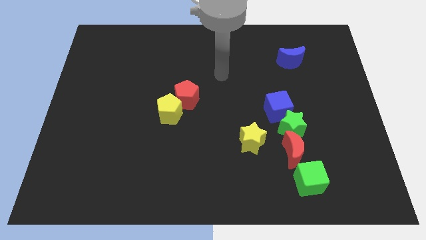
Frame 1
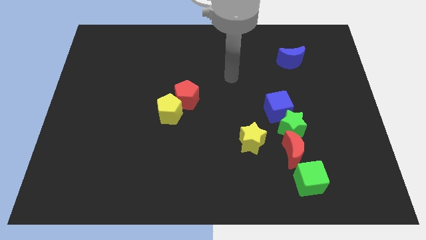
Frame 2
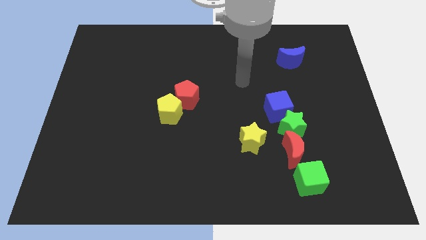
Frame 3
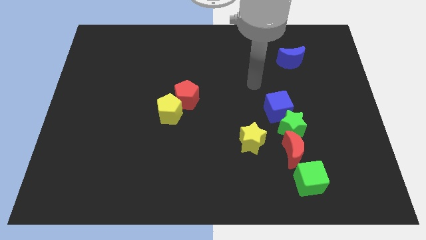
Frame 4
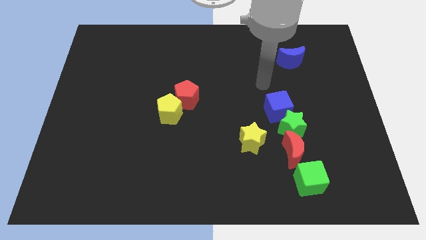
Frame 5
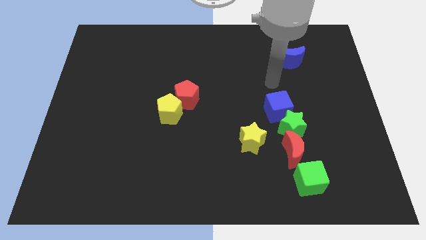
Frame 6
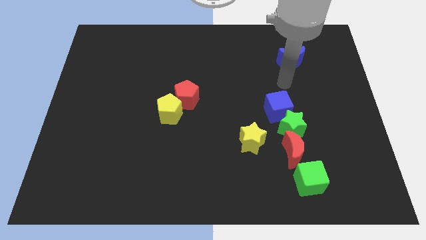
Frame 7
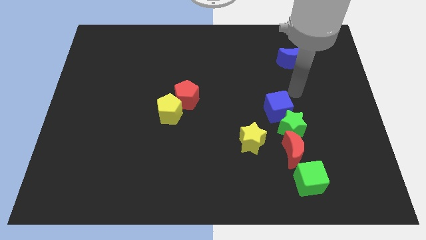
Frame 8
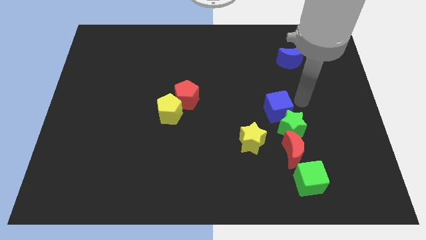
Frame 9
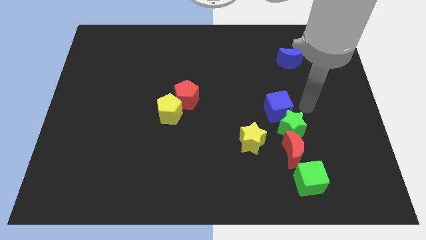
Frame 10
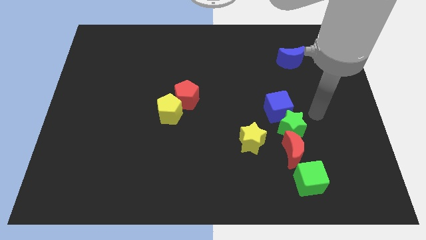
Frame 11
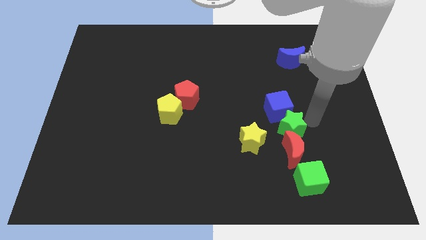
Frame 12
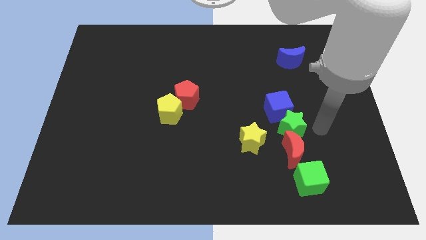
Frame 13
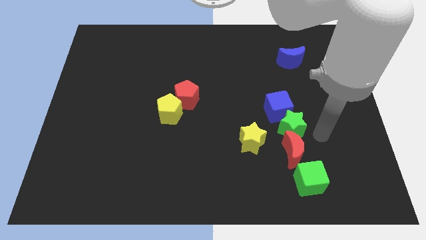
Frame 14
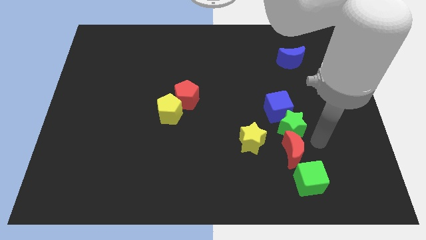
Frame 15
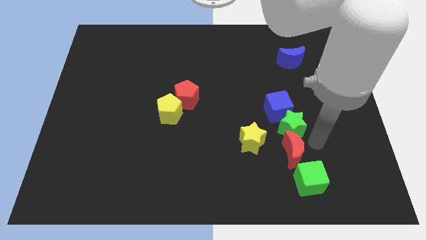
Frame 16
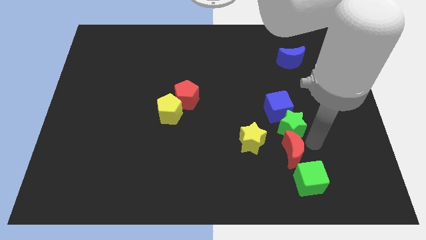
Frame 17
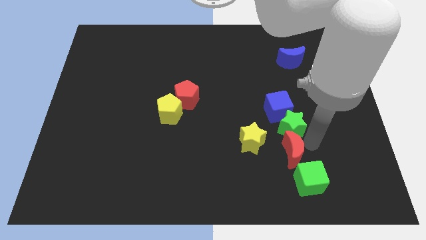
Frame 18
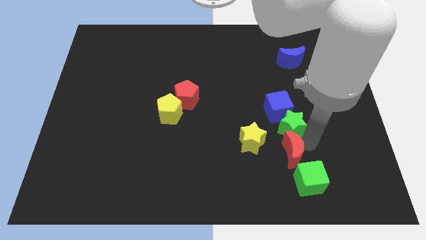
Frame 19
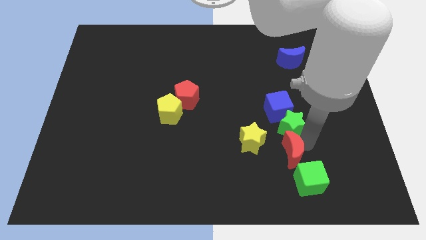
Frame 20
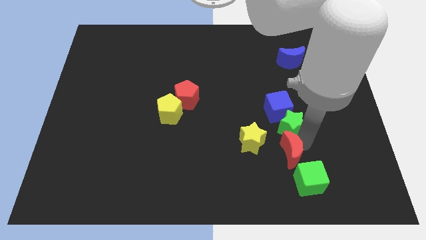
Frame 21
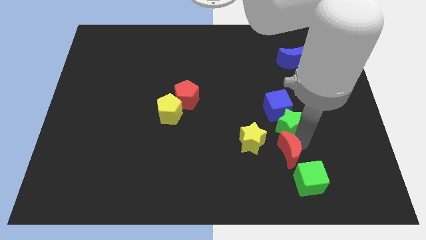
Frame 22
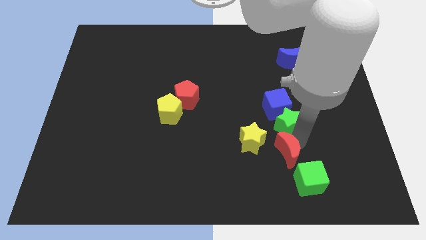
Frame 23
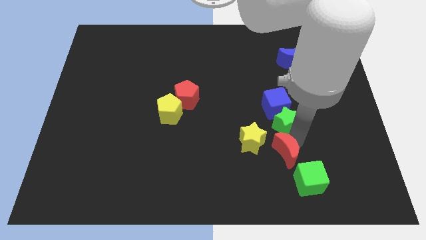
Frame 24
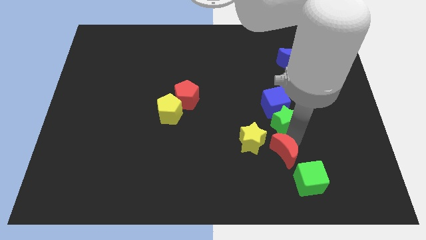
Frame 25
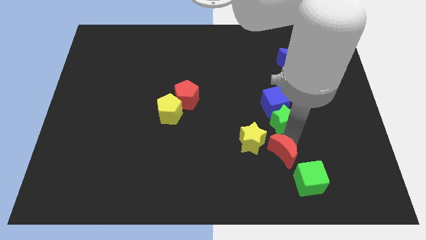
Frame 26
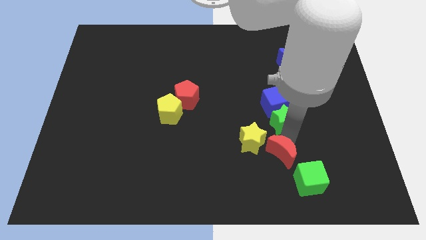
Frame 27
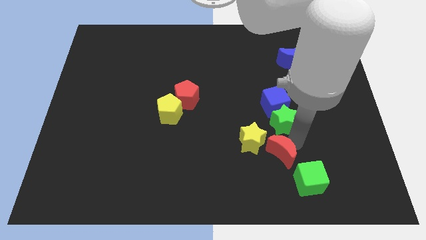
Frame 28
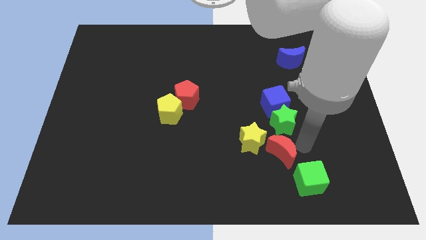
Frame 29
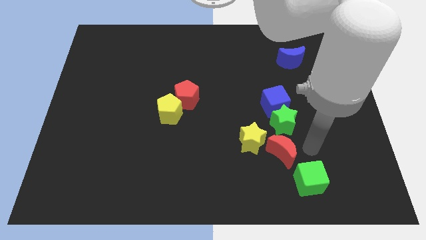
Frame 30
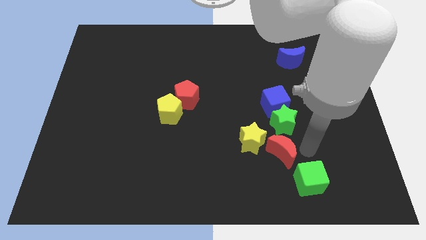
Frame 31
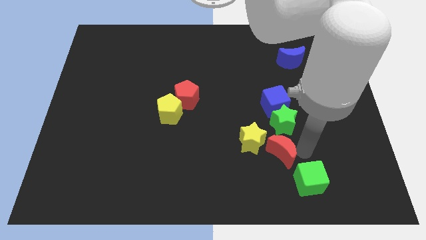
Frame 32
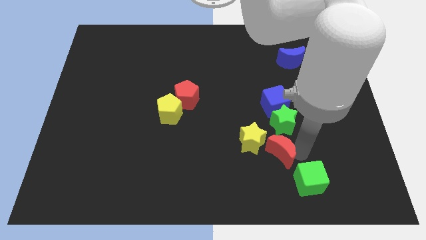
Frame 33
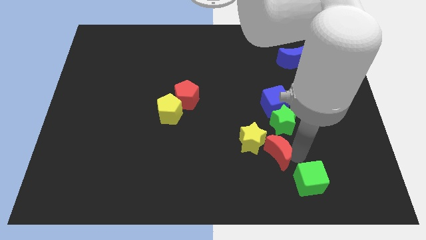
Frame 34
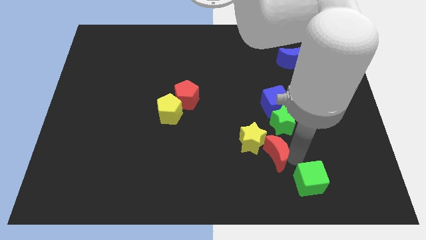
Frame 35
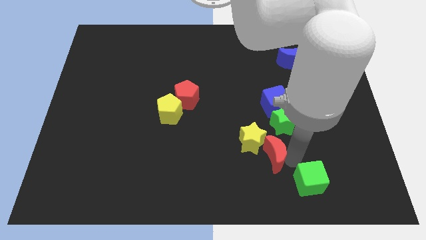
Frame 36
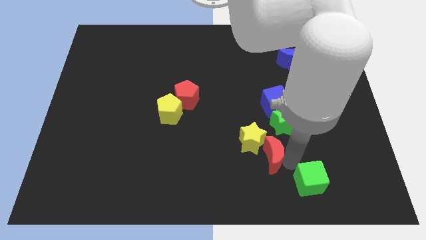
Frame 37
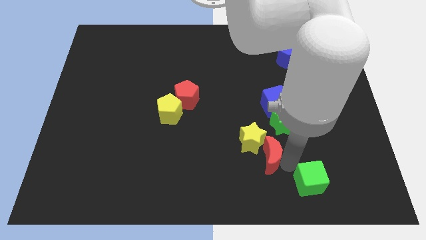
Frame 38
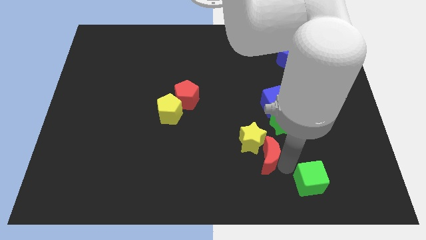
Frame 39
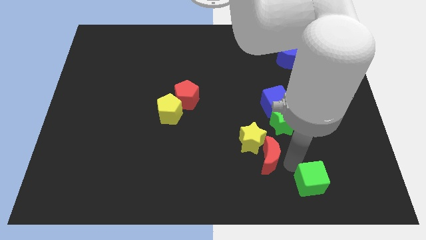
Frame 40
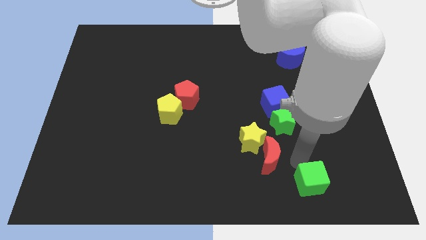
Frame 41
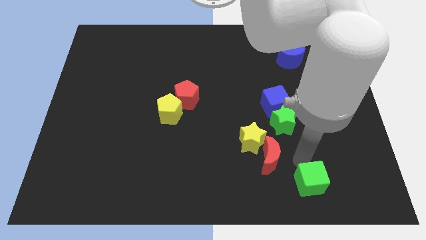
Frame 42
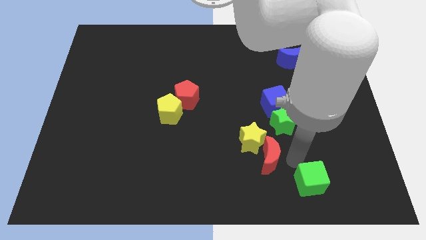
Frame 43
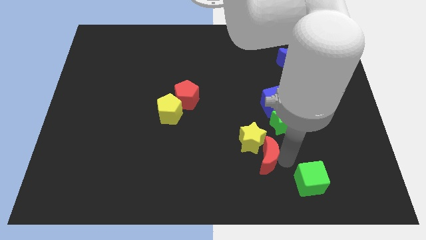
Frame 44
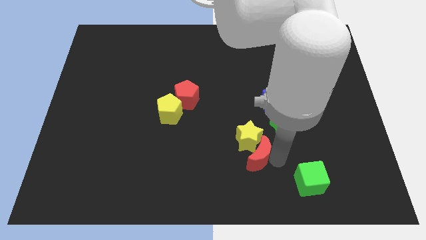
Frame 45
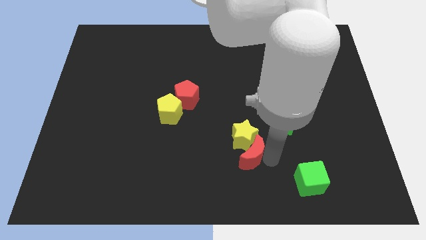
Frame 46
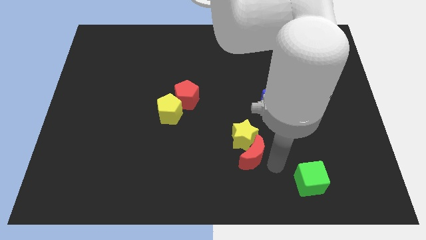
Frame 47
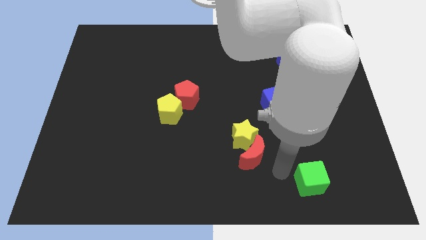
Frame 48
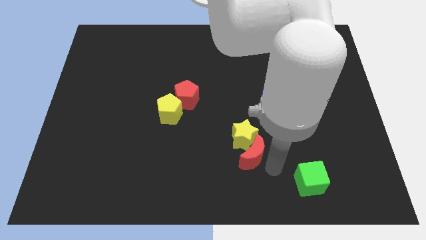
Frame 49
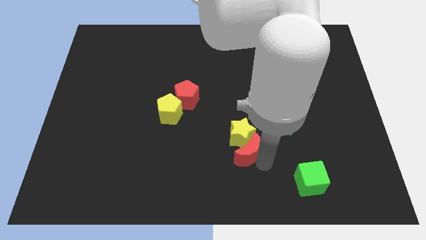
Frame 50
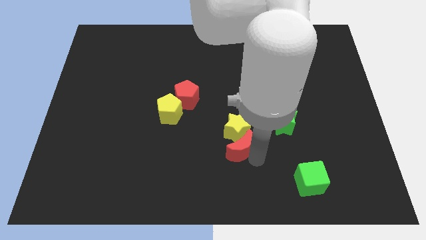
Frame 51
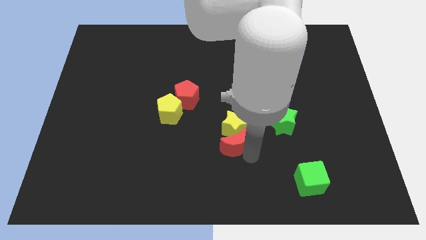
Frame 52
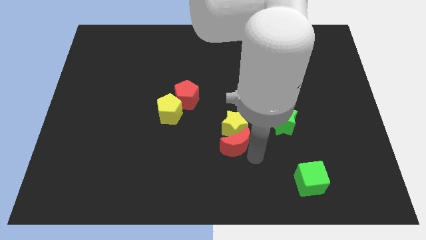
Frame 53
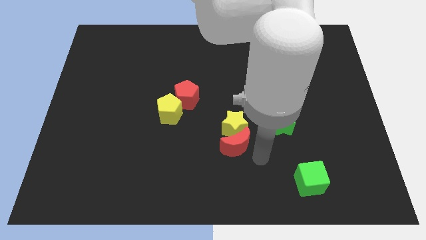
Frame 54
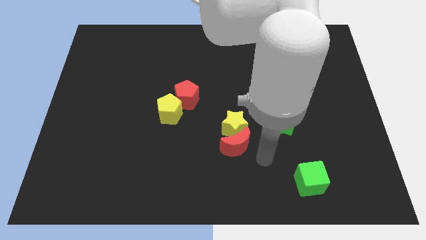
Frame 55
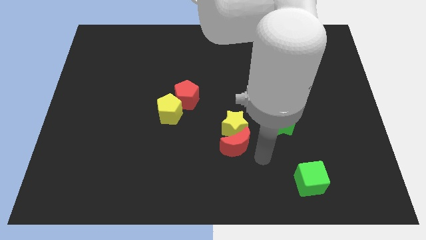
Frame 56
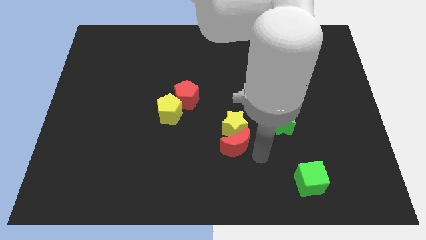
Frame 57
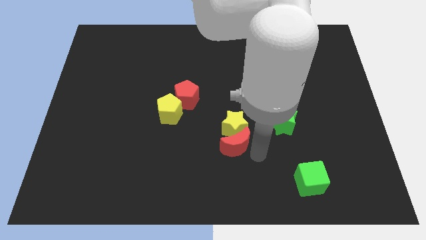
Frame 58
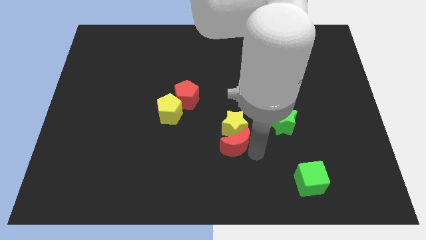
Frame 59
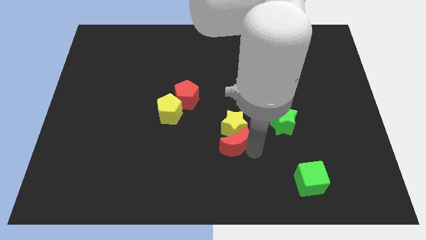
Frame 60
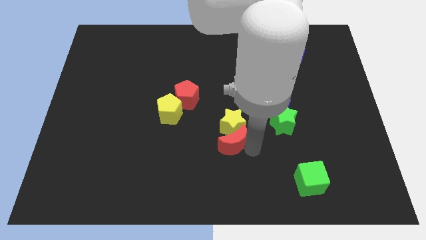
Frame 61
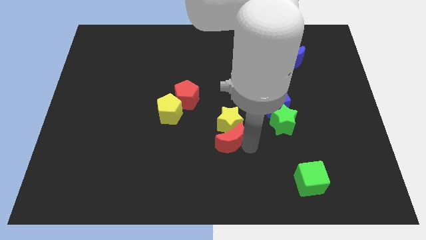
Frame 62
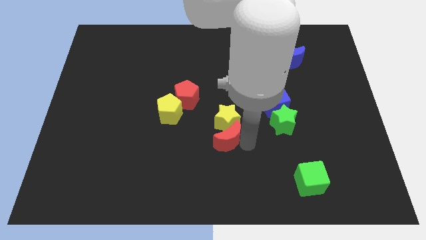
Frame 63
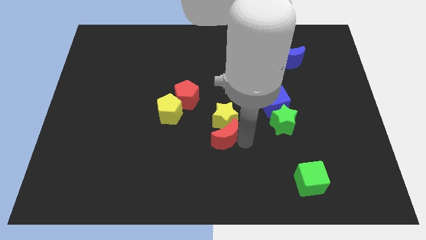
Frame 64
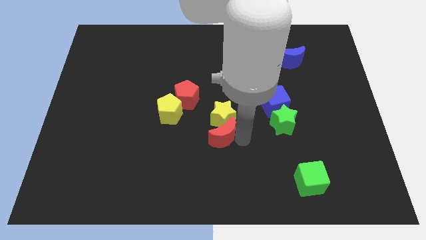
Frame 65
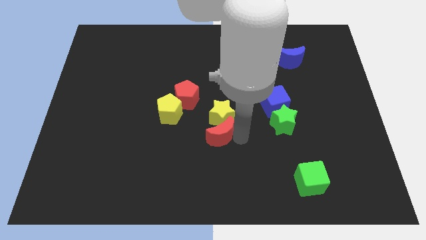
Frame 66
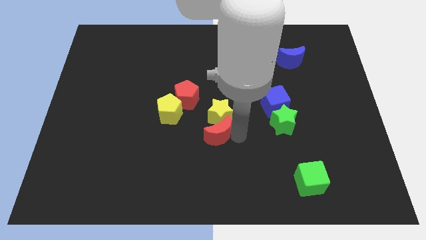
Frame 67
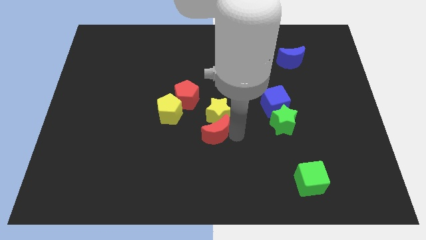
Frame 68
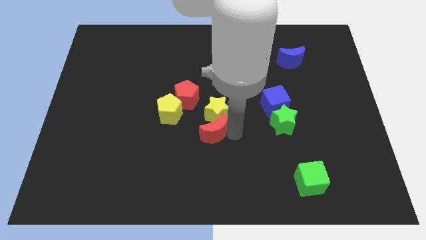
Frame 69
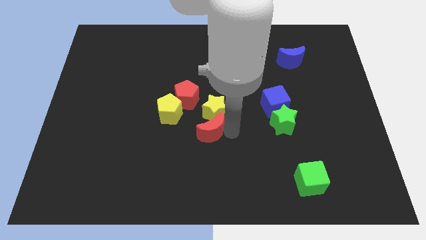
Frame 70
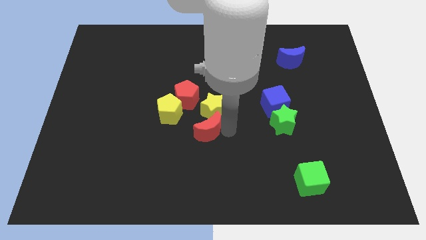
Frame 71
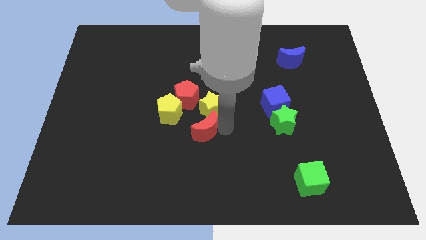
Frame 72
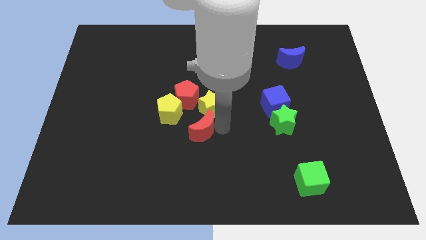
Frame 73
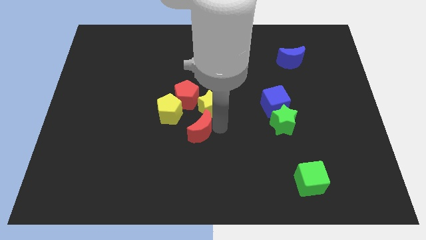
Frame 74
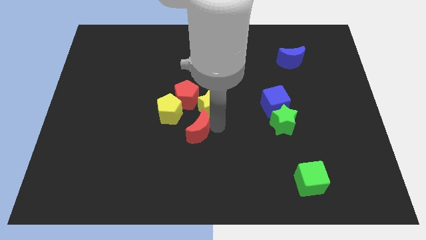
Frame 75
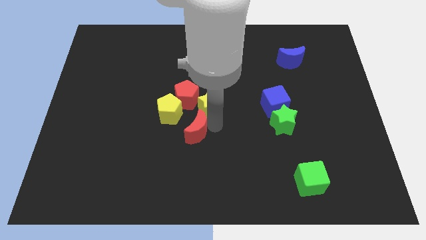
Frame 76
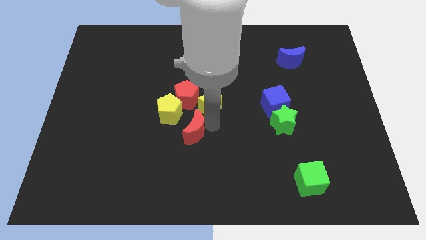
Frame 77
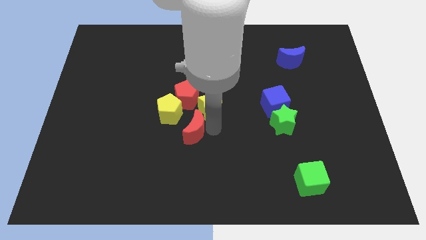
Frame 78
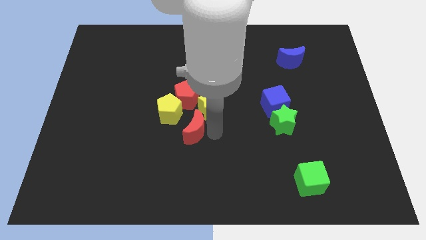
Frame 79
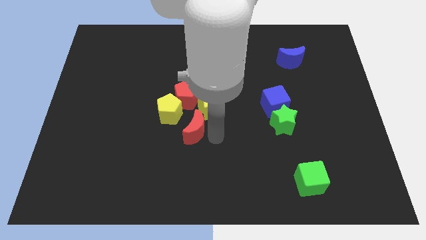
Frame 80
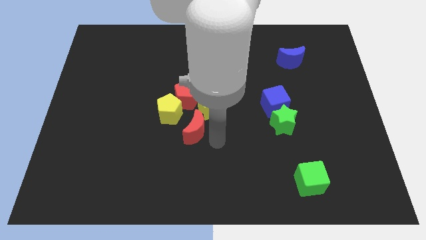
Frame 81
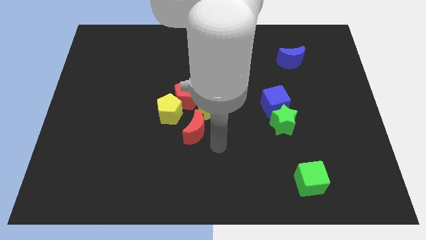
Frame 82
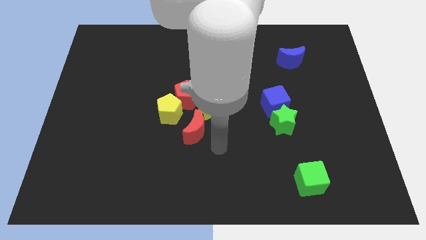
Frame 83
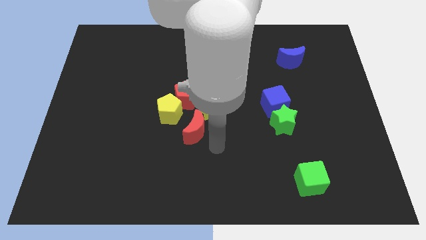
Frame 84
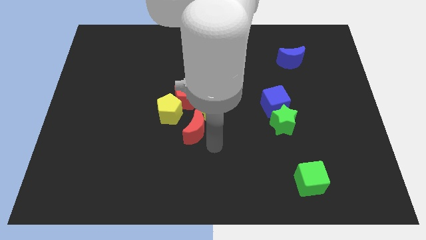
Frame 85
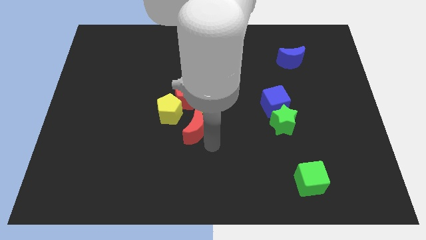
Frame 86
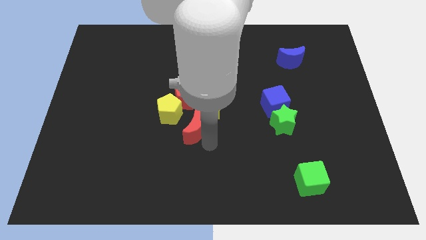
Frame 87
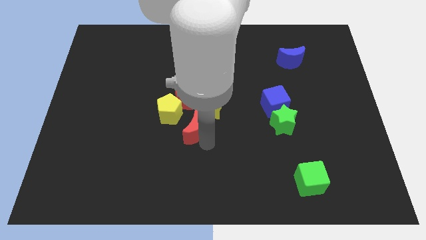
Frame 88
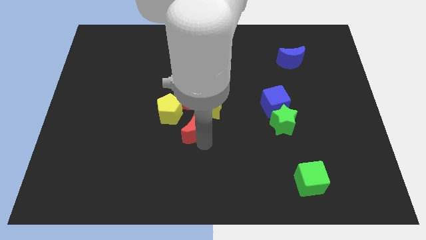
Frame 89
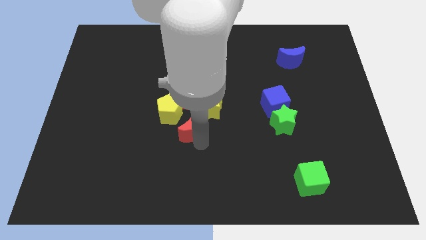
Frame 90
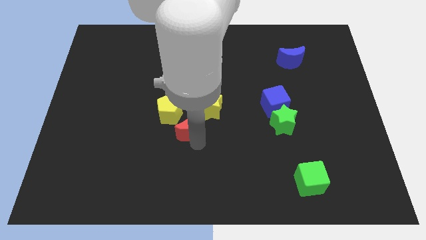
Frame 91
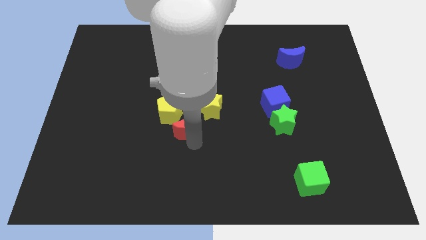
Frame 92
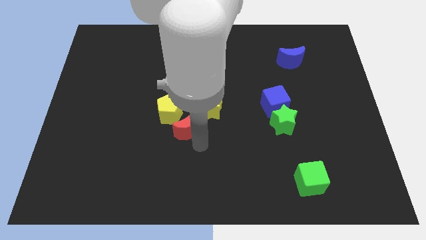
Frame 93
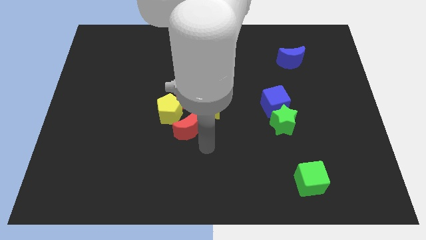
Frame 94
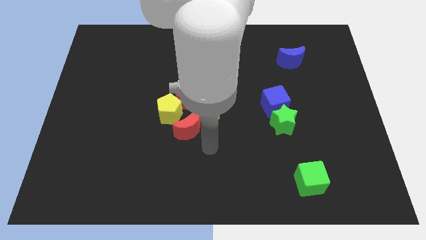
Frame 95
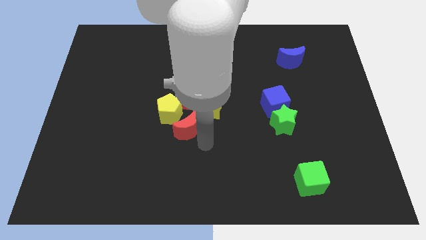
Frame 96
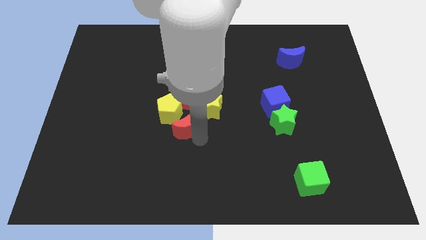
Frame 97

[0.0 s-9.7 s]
put the red moon towards the yellow pentagon
